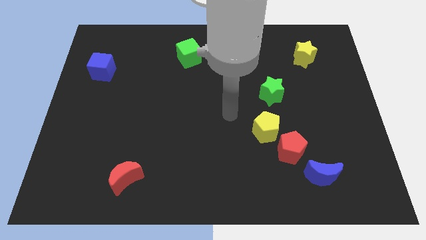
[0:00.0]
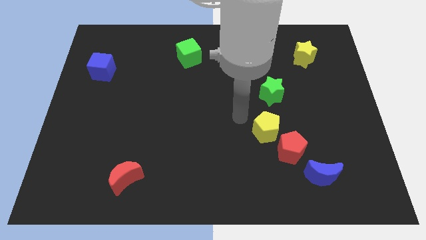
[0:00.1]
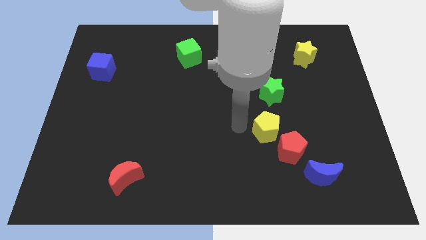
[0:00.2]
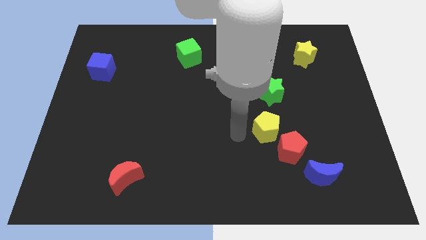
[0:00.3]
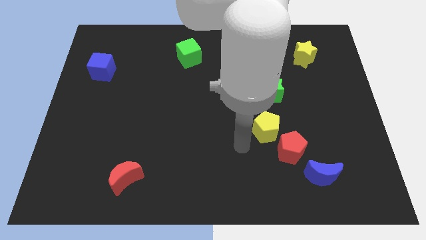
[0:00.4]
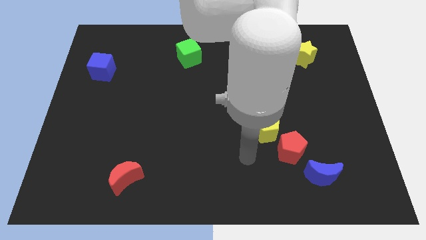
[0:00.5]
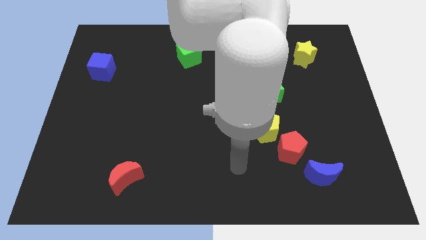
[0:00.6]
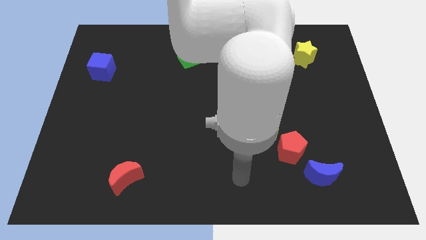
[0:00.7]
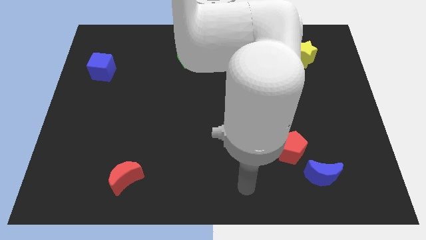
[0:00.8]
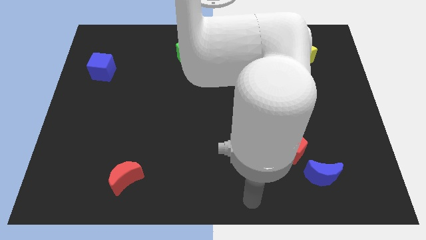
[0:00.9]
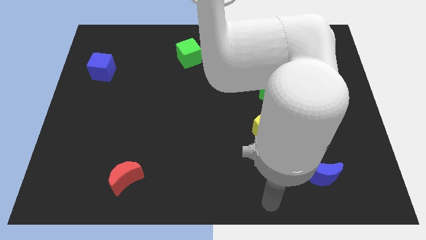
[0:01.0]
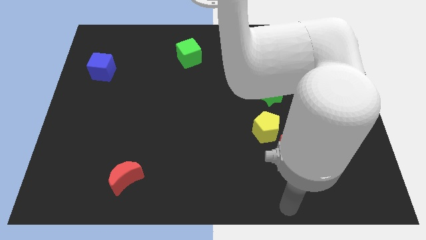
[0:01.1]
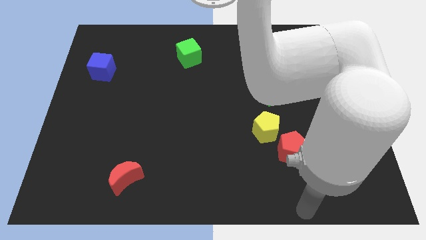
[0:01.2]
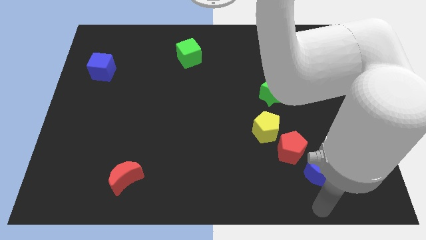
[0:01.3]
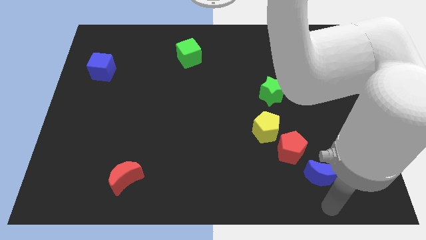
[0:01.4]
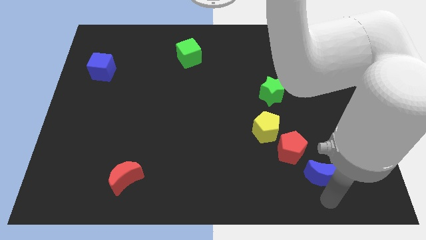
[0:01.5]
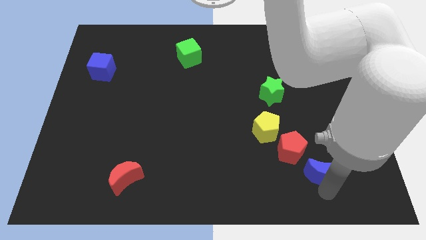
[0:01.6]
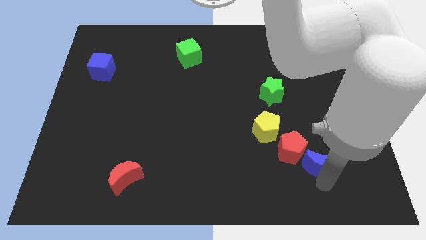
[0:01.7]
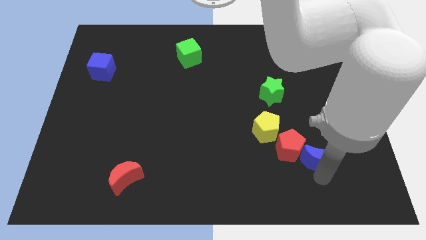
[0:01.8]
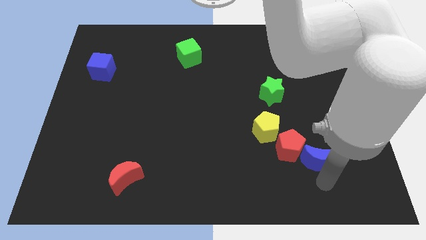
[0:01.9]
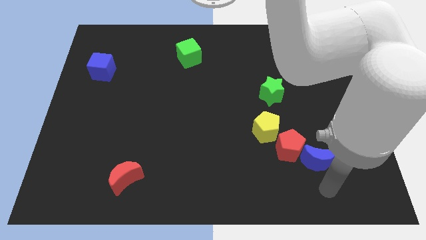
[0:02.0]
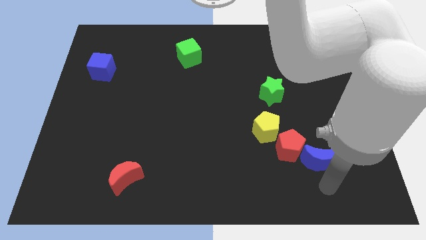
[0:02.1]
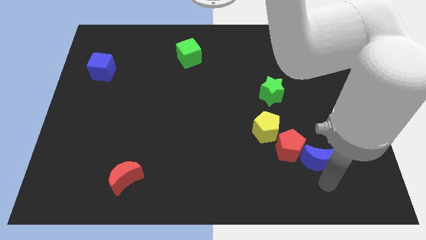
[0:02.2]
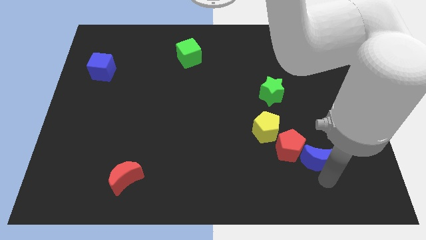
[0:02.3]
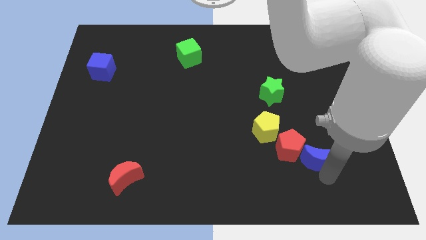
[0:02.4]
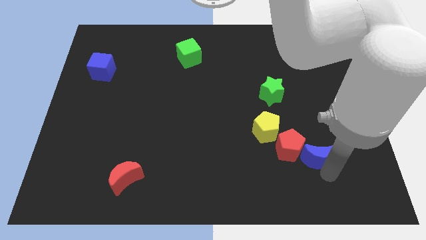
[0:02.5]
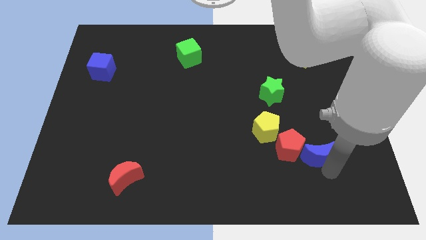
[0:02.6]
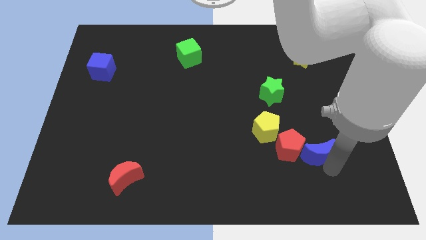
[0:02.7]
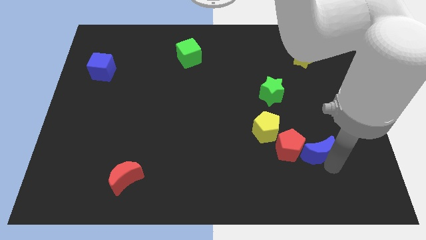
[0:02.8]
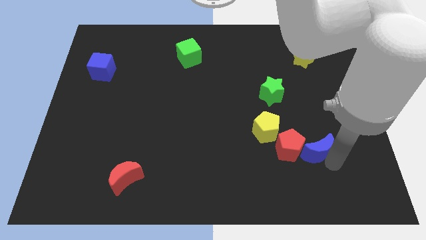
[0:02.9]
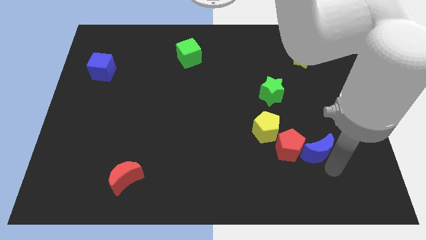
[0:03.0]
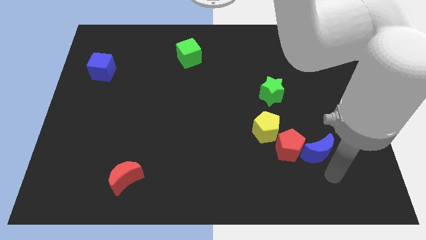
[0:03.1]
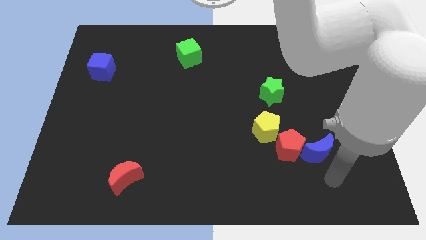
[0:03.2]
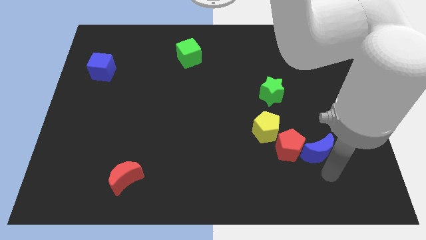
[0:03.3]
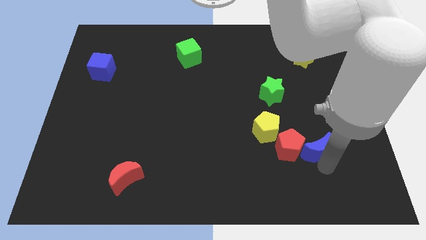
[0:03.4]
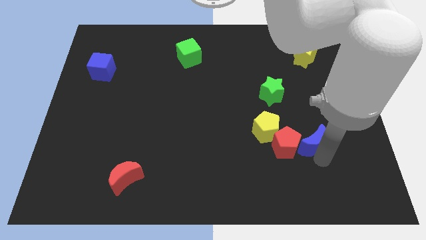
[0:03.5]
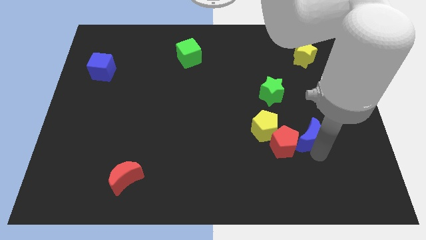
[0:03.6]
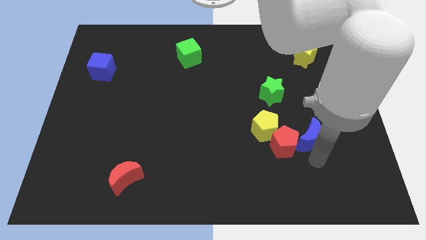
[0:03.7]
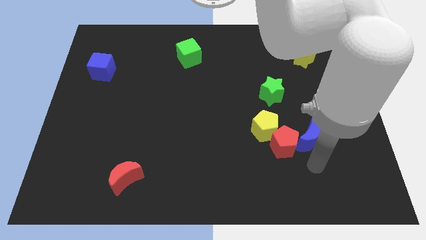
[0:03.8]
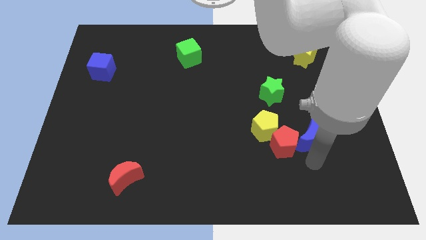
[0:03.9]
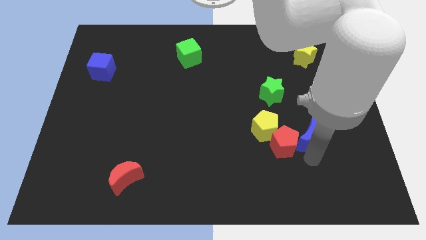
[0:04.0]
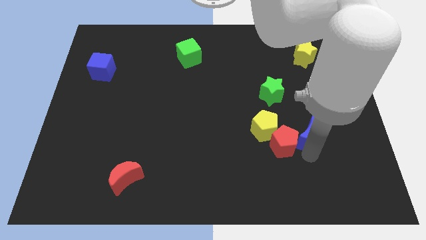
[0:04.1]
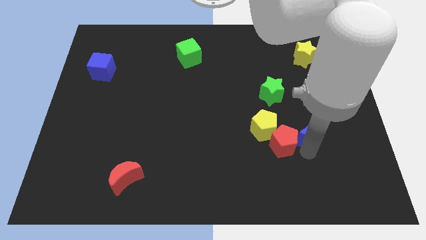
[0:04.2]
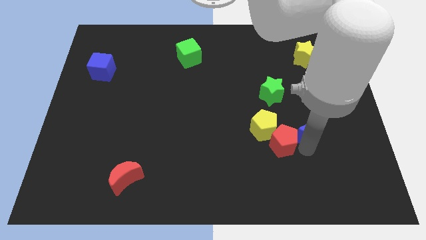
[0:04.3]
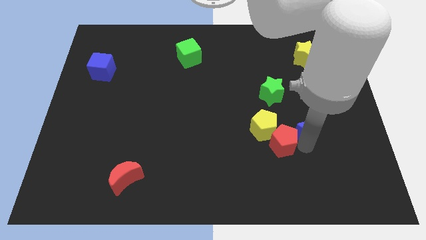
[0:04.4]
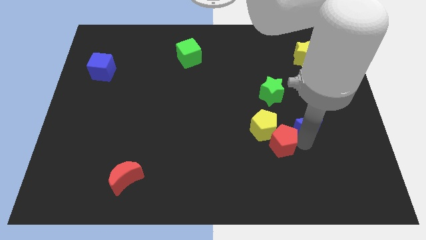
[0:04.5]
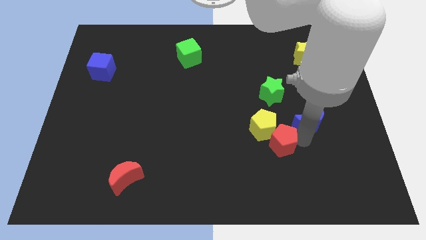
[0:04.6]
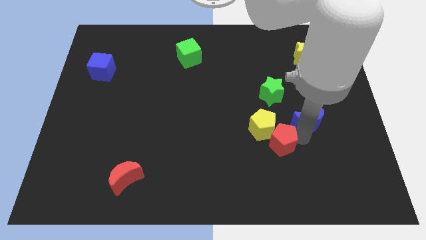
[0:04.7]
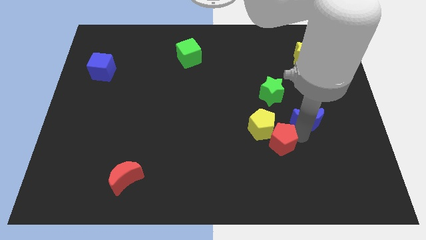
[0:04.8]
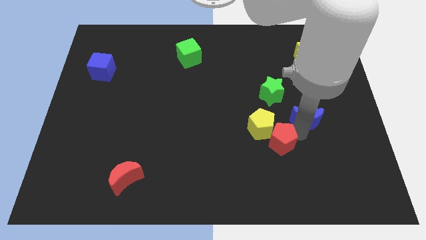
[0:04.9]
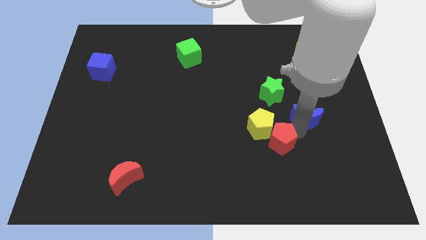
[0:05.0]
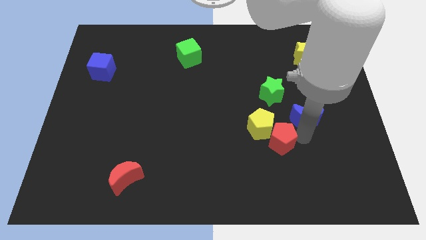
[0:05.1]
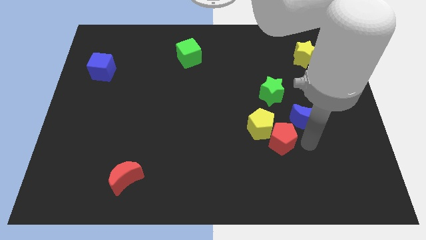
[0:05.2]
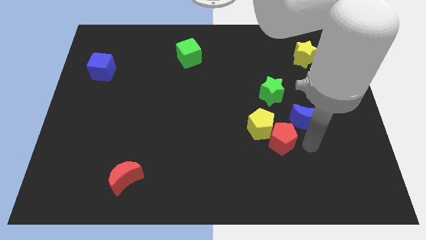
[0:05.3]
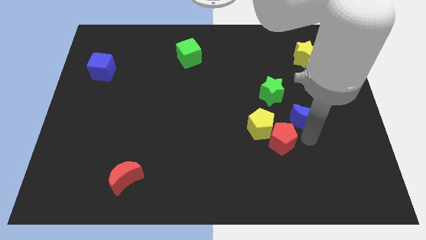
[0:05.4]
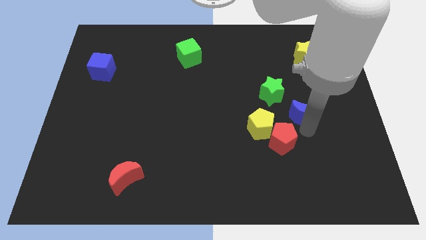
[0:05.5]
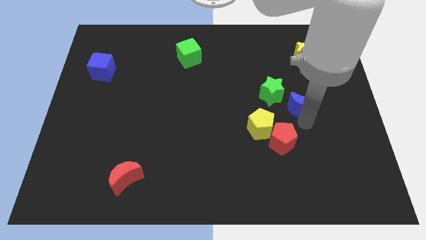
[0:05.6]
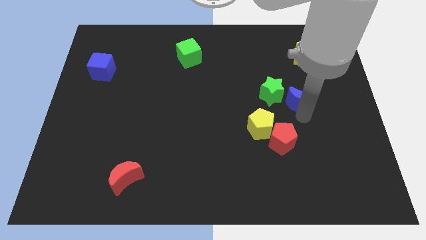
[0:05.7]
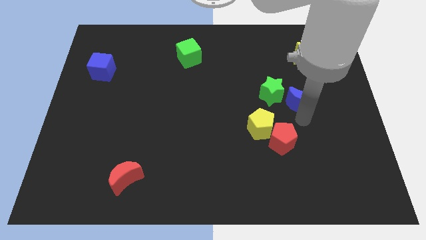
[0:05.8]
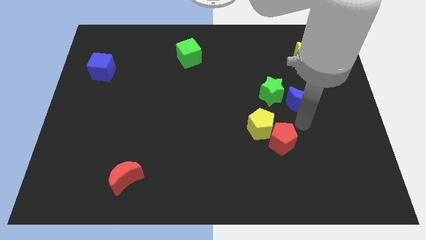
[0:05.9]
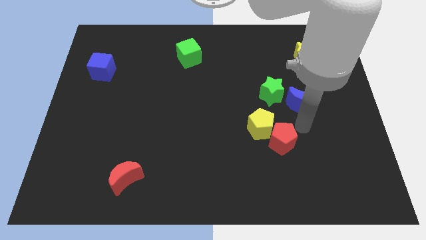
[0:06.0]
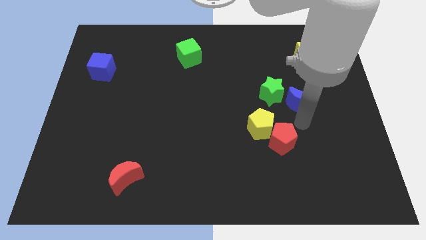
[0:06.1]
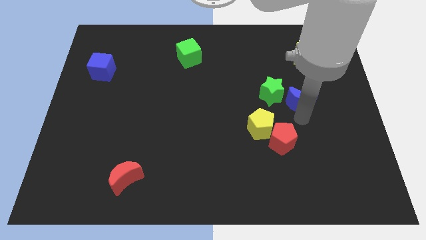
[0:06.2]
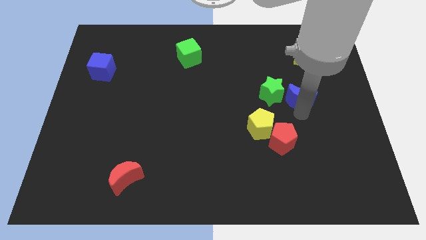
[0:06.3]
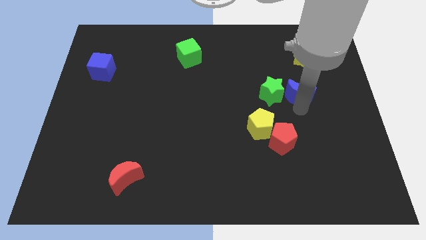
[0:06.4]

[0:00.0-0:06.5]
move the blue moon to the top right side of the green star
